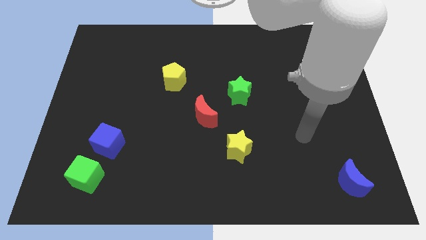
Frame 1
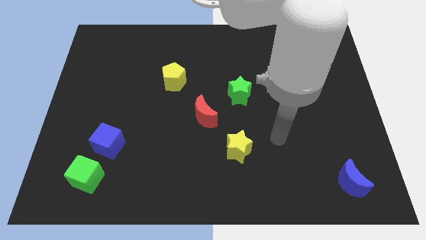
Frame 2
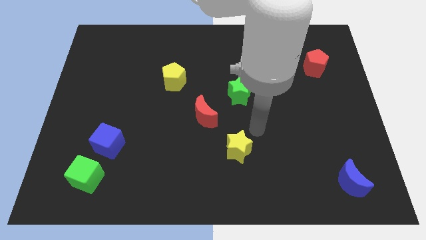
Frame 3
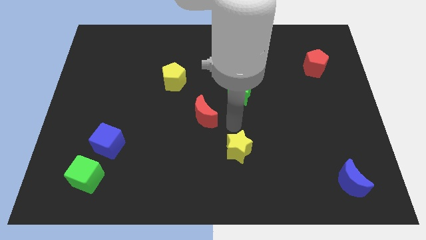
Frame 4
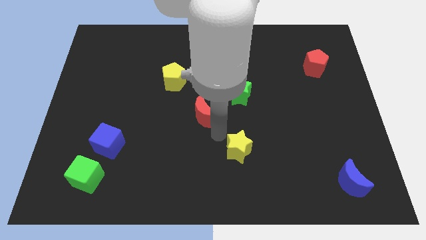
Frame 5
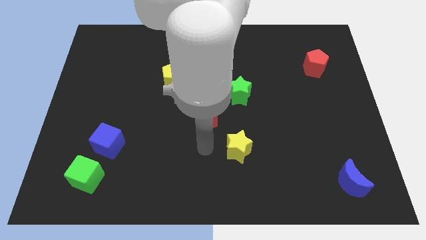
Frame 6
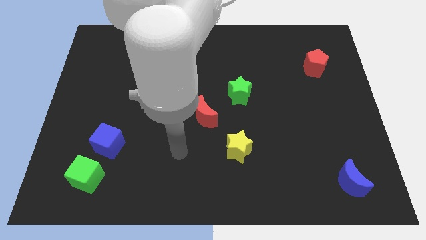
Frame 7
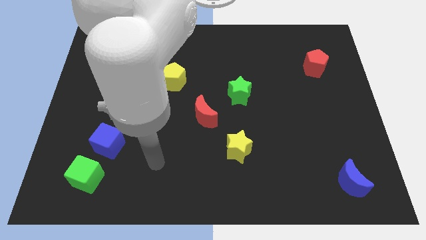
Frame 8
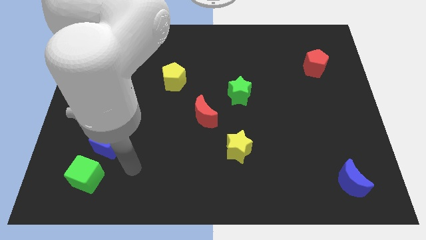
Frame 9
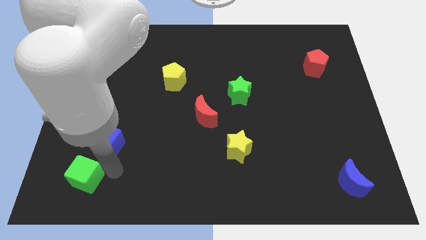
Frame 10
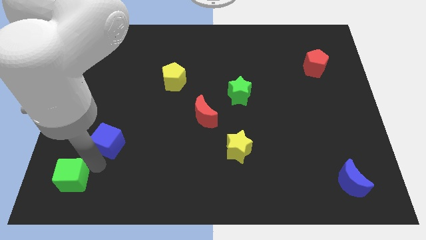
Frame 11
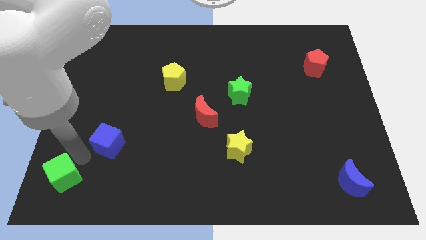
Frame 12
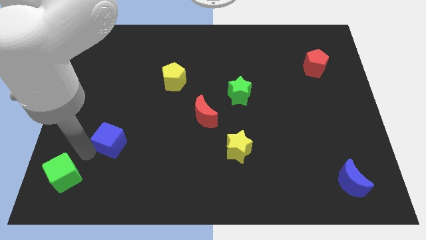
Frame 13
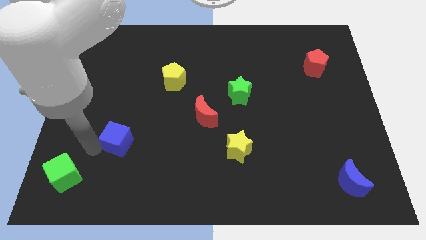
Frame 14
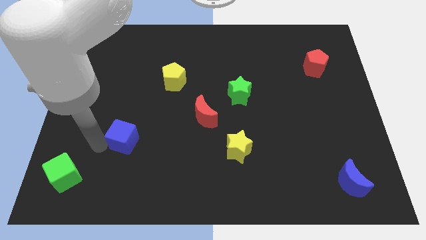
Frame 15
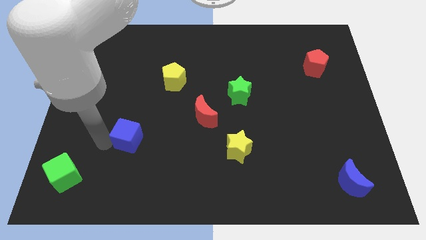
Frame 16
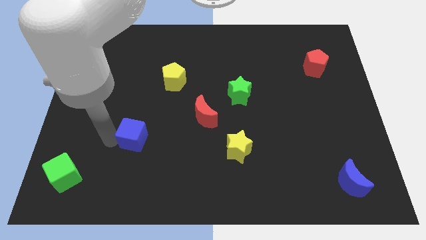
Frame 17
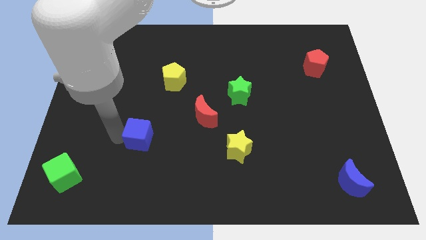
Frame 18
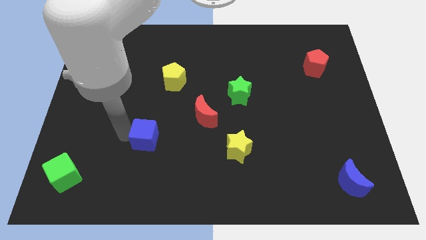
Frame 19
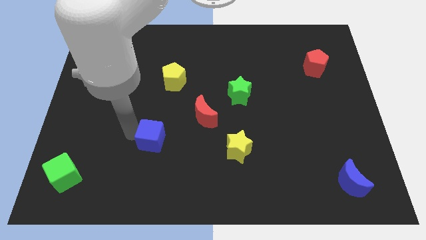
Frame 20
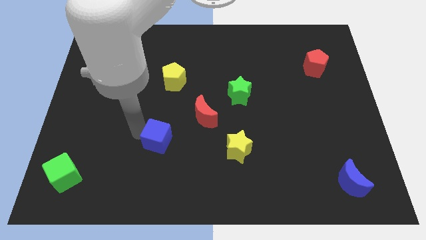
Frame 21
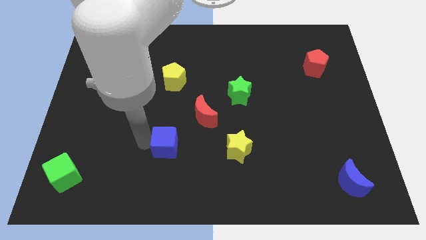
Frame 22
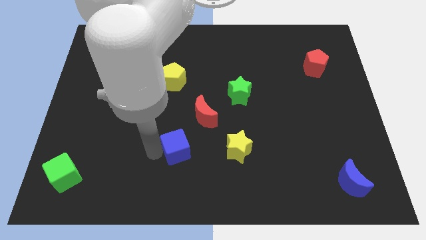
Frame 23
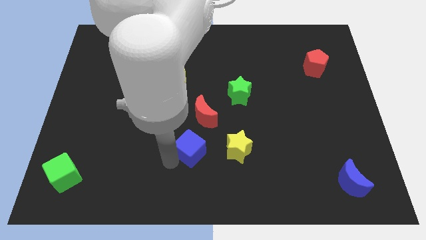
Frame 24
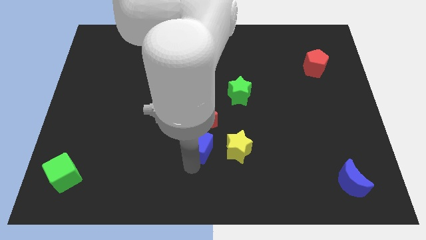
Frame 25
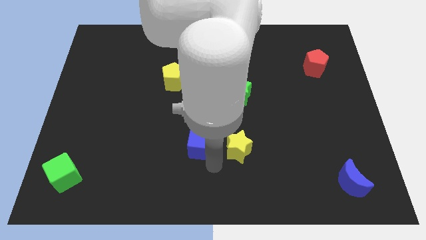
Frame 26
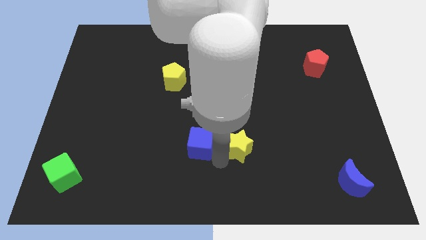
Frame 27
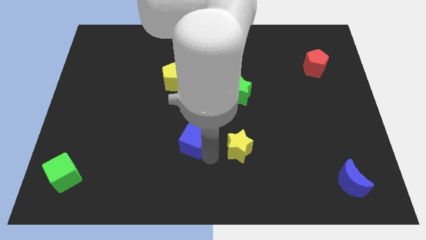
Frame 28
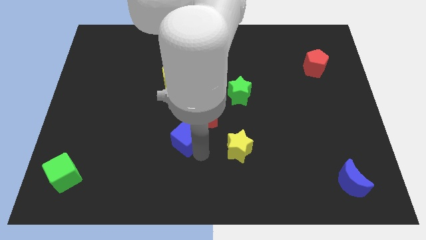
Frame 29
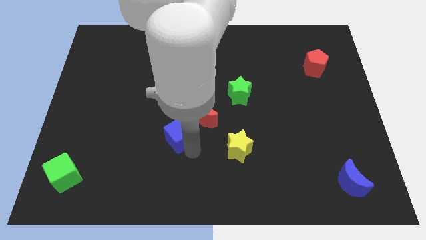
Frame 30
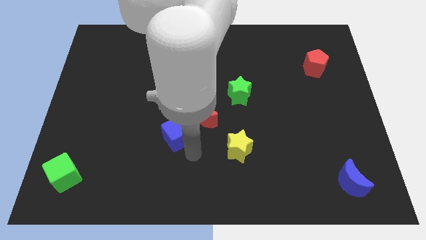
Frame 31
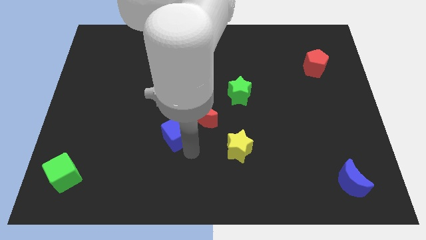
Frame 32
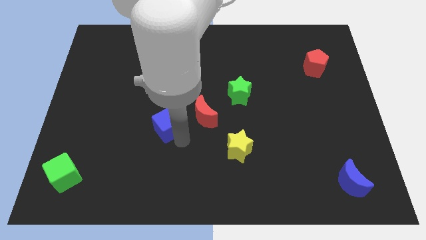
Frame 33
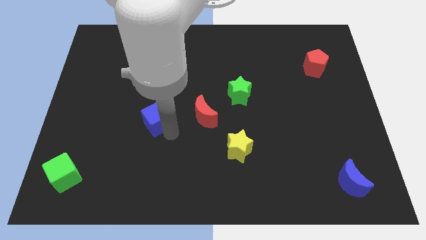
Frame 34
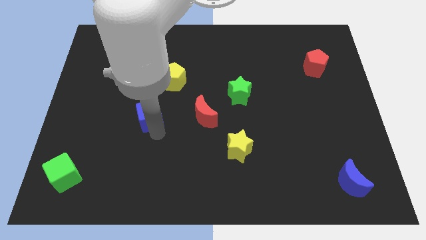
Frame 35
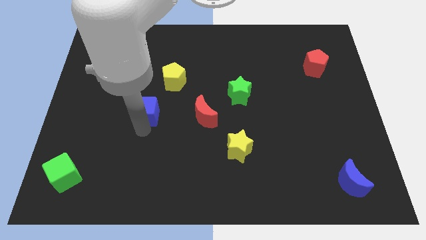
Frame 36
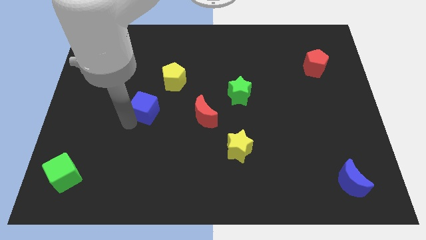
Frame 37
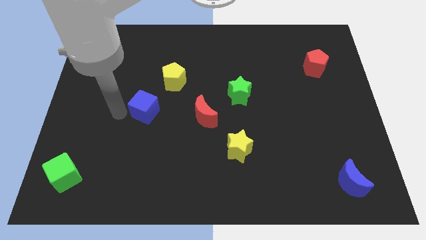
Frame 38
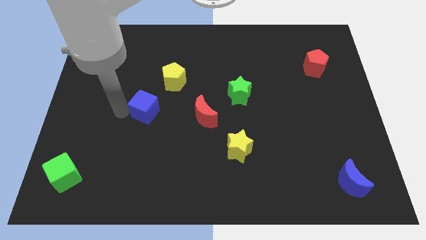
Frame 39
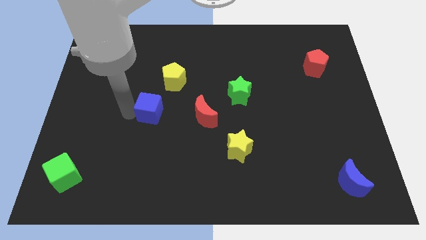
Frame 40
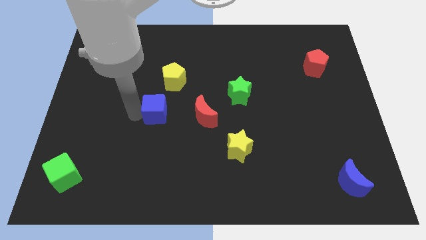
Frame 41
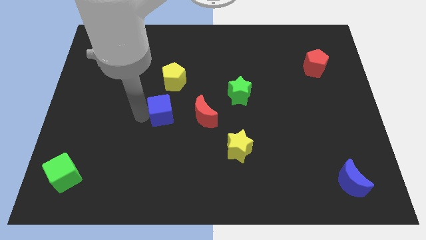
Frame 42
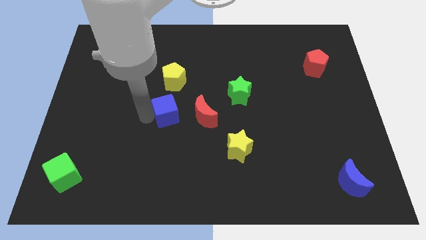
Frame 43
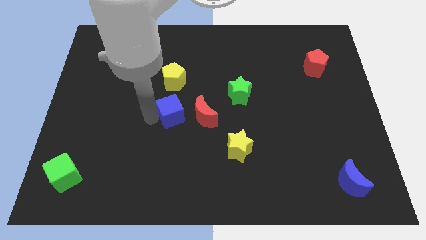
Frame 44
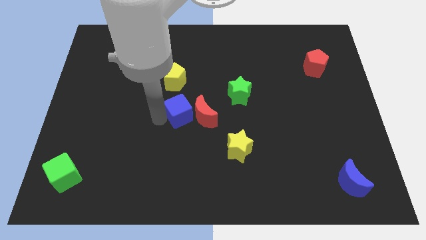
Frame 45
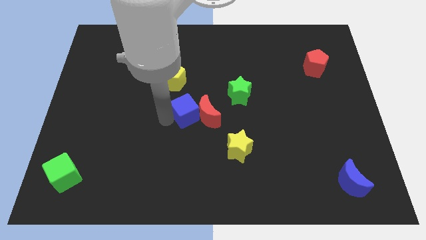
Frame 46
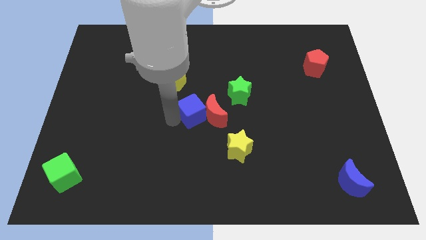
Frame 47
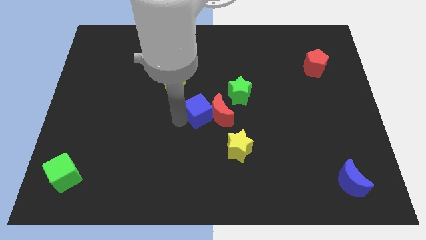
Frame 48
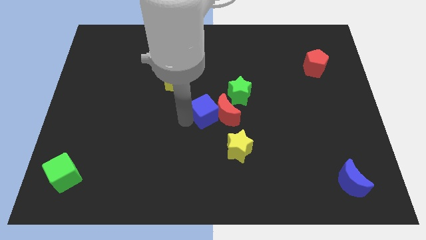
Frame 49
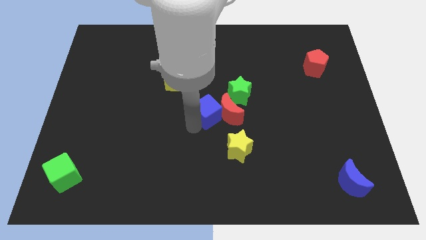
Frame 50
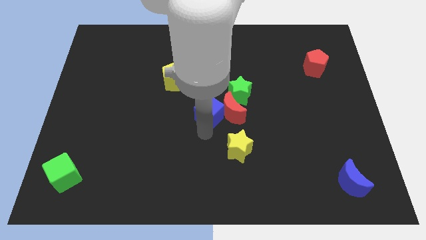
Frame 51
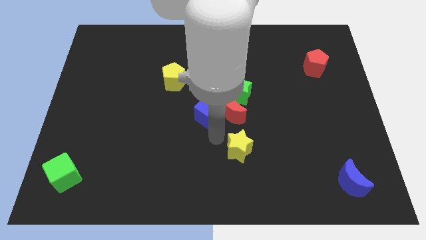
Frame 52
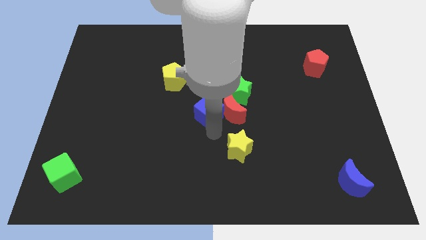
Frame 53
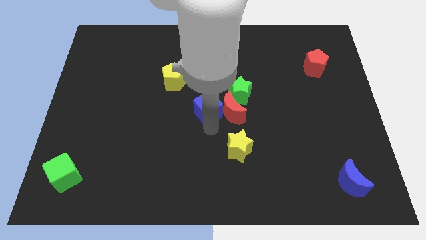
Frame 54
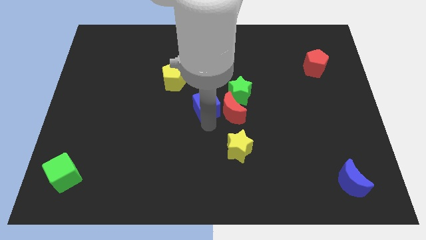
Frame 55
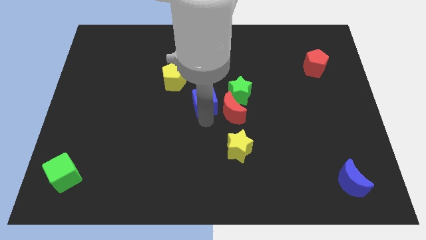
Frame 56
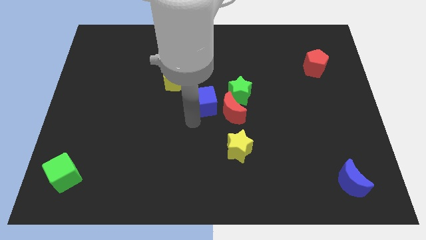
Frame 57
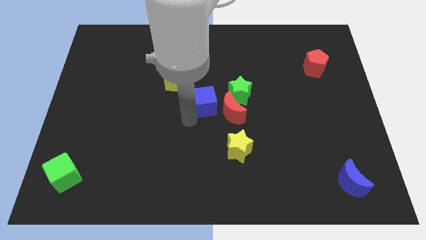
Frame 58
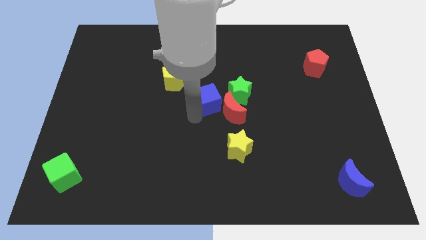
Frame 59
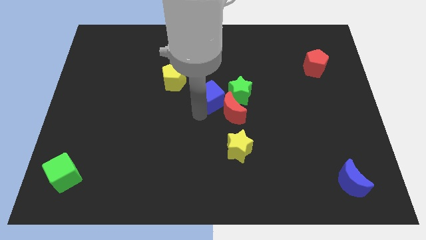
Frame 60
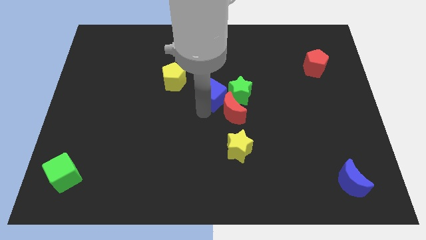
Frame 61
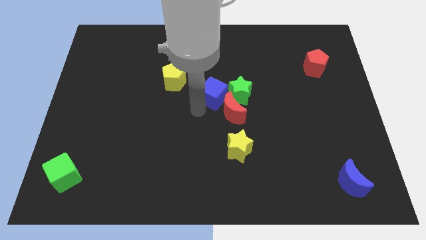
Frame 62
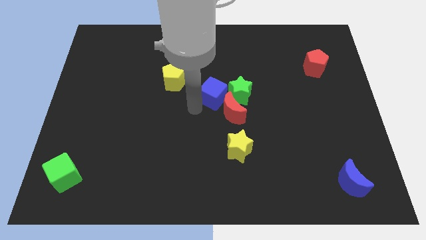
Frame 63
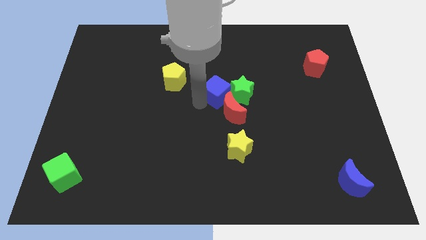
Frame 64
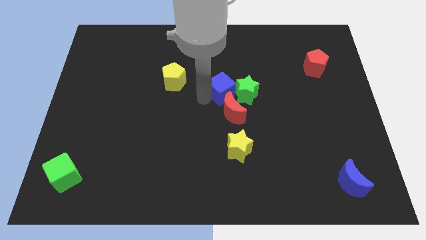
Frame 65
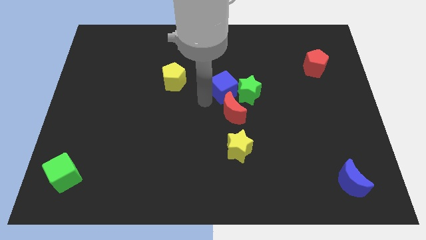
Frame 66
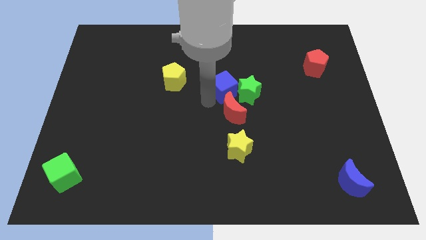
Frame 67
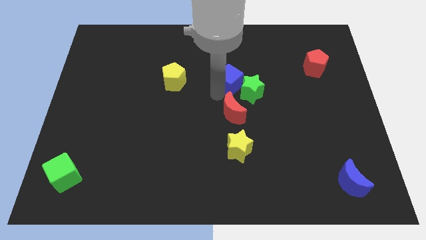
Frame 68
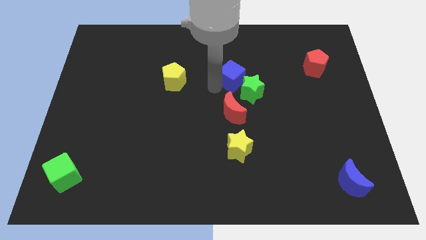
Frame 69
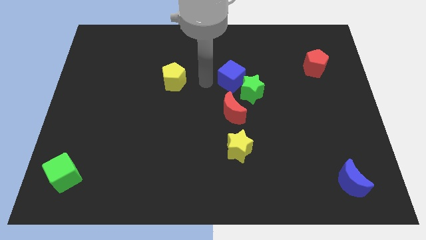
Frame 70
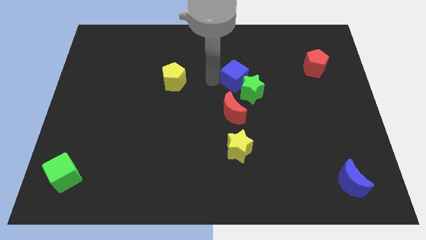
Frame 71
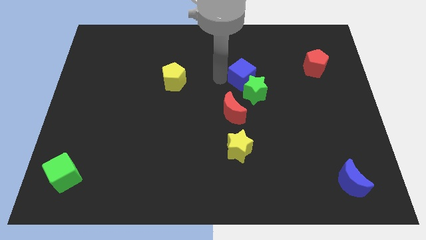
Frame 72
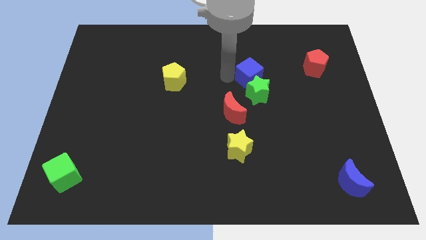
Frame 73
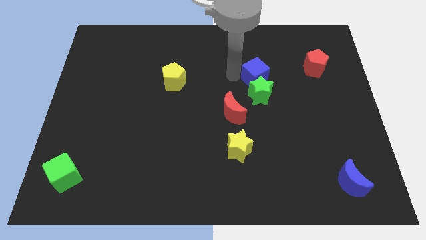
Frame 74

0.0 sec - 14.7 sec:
push the blue cube to the top right side of the green star
